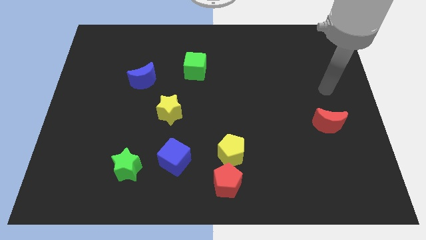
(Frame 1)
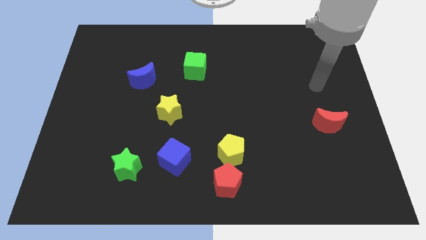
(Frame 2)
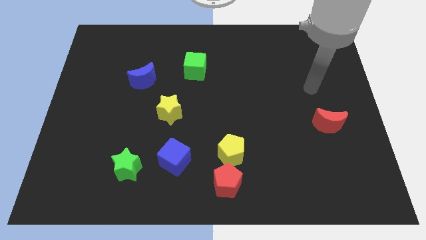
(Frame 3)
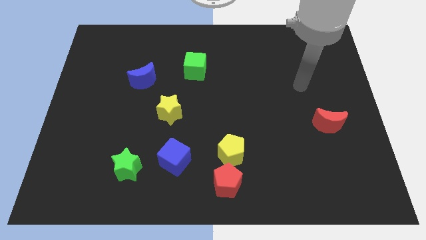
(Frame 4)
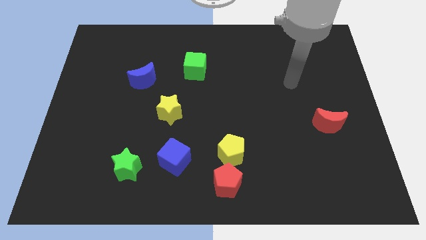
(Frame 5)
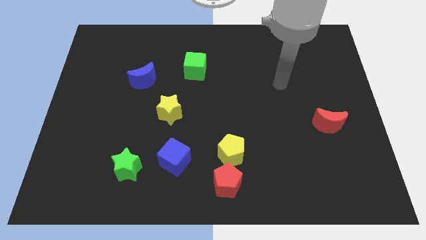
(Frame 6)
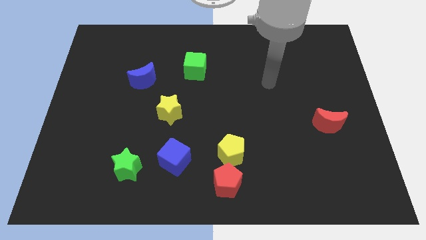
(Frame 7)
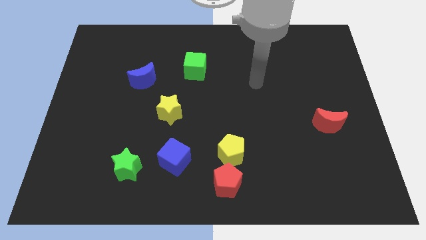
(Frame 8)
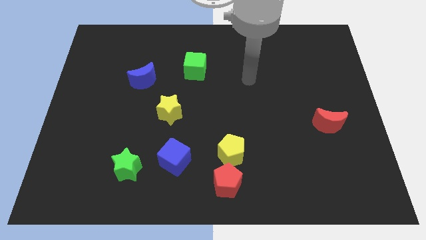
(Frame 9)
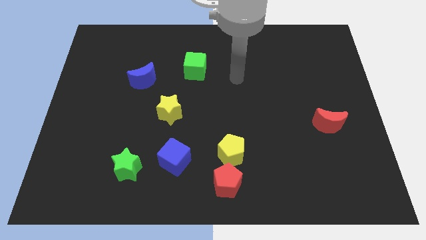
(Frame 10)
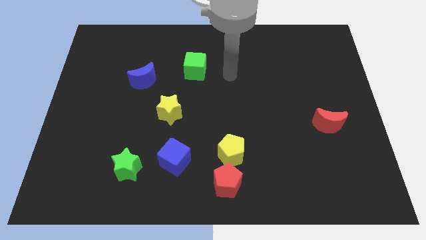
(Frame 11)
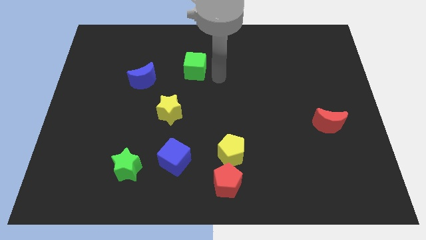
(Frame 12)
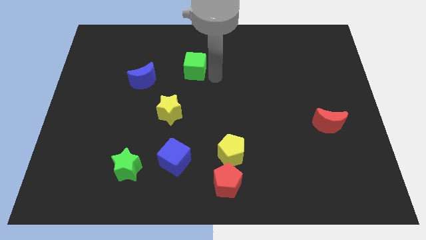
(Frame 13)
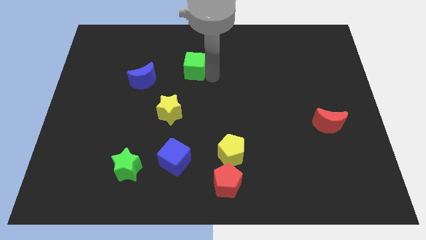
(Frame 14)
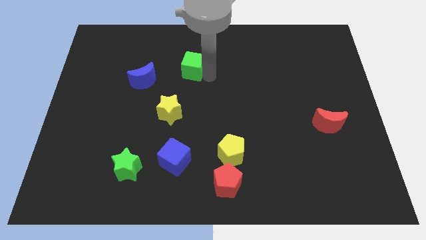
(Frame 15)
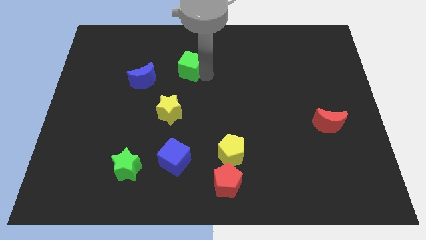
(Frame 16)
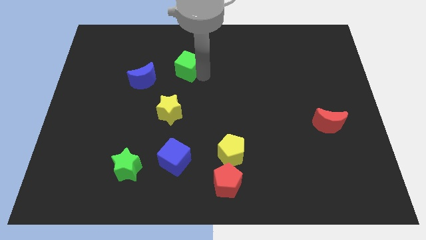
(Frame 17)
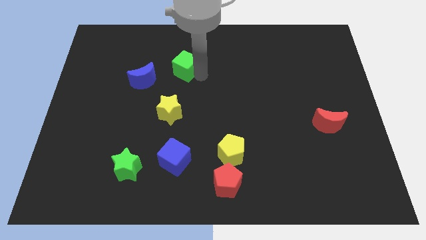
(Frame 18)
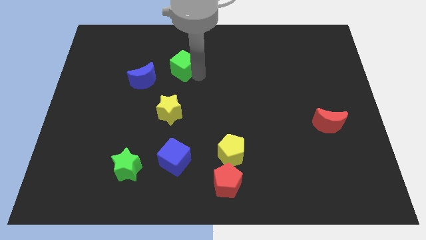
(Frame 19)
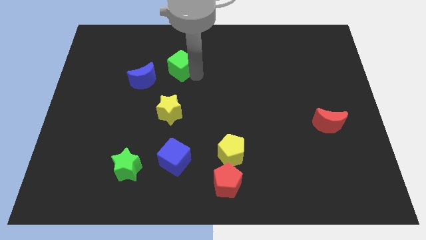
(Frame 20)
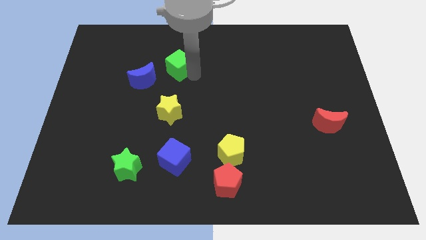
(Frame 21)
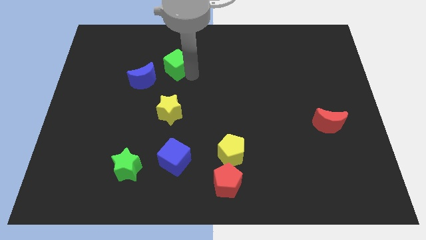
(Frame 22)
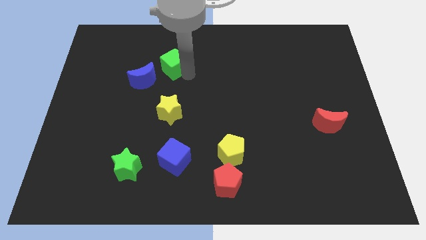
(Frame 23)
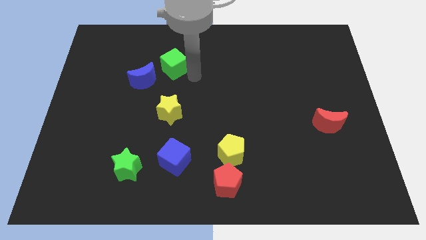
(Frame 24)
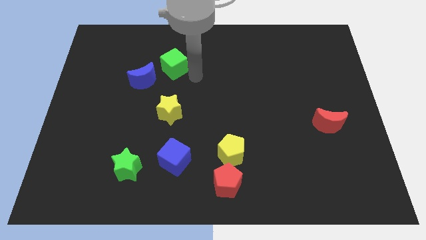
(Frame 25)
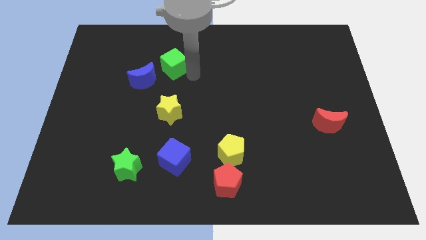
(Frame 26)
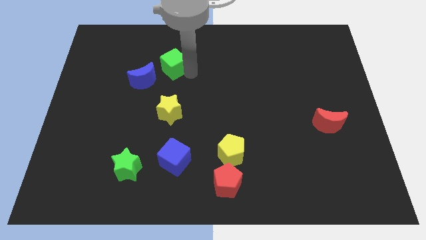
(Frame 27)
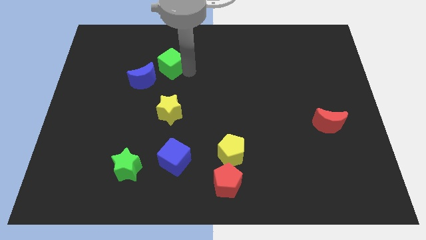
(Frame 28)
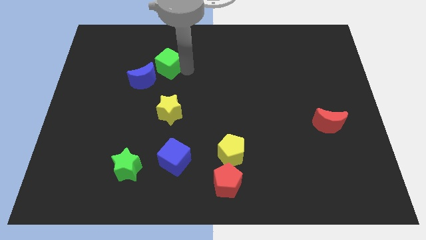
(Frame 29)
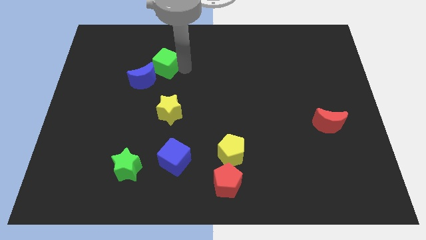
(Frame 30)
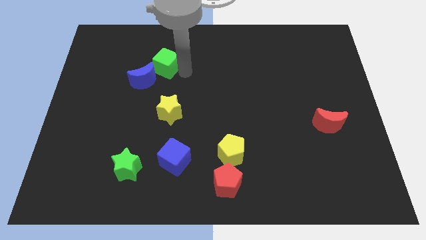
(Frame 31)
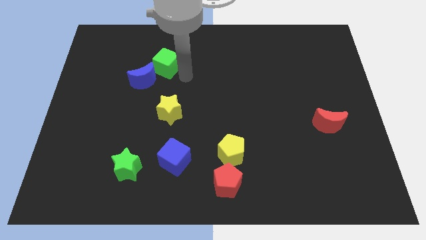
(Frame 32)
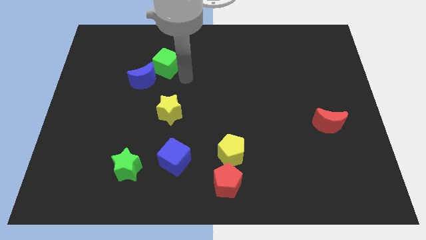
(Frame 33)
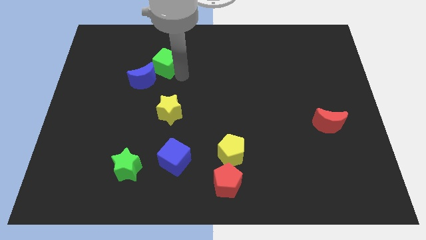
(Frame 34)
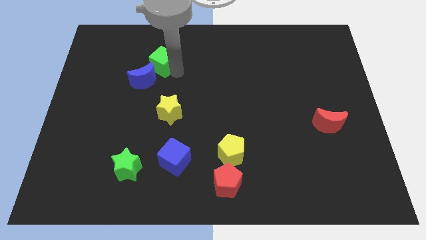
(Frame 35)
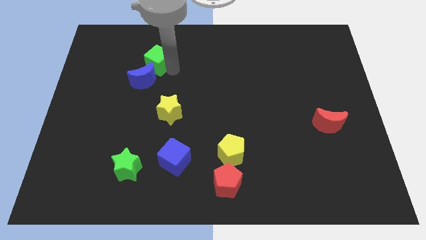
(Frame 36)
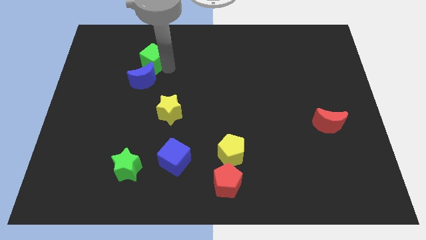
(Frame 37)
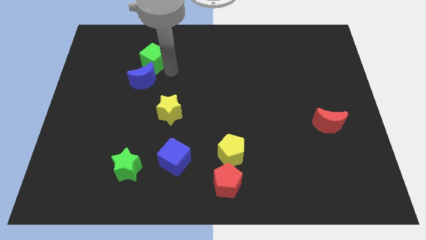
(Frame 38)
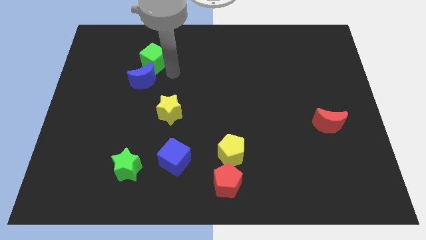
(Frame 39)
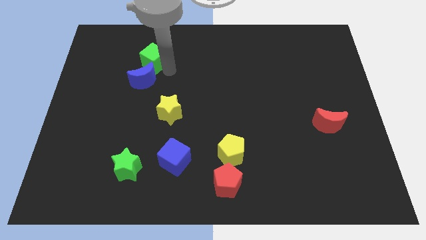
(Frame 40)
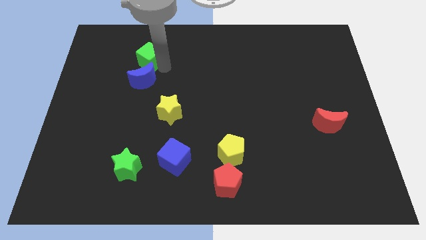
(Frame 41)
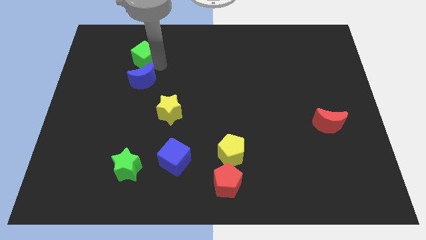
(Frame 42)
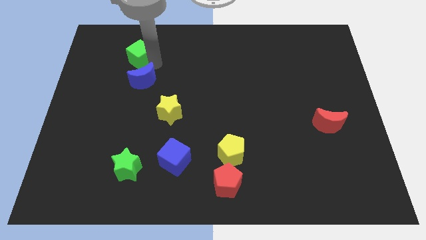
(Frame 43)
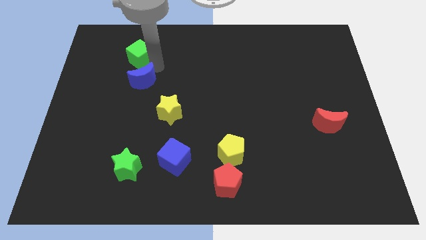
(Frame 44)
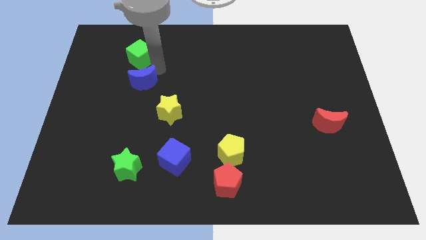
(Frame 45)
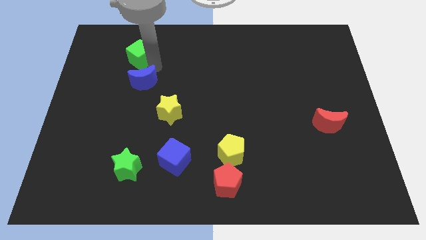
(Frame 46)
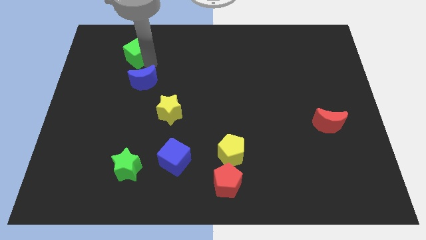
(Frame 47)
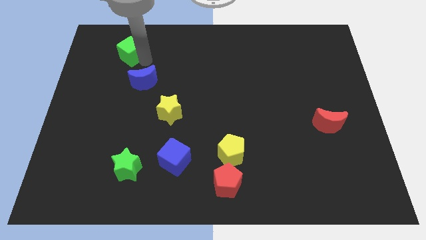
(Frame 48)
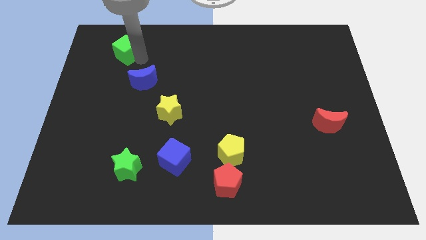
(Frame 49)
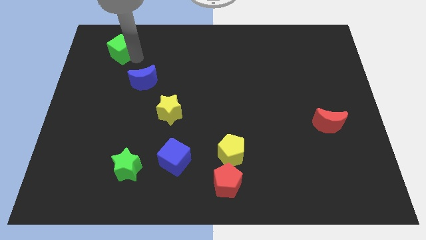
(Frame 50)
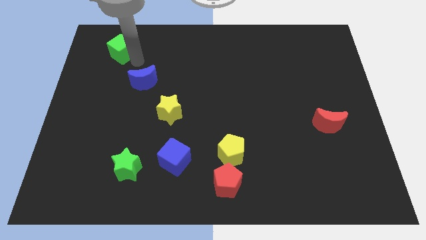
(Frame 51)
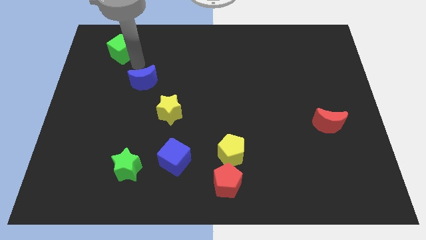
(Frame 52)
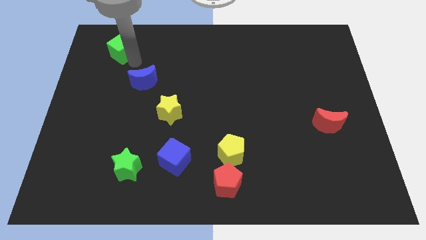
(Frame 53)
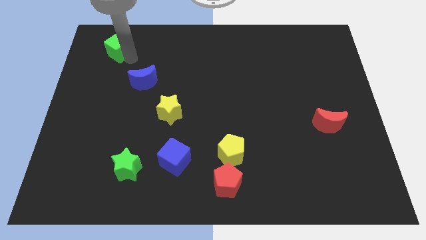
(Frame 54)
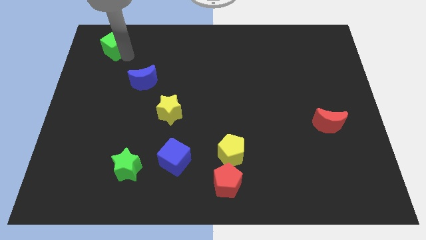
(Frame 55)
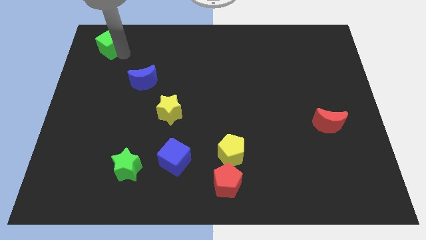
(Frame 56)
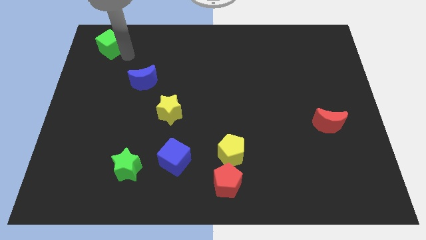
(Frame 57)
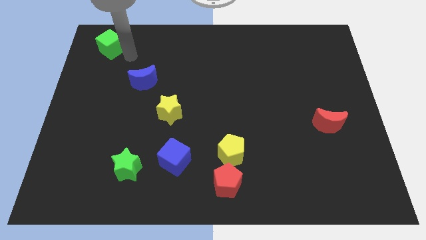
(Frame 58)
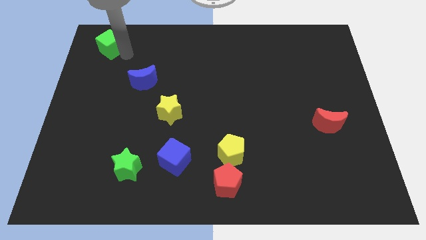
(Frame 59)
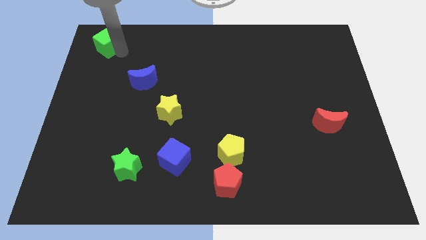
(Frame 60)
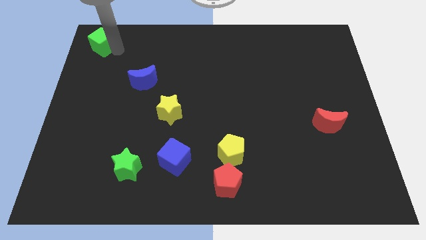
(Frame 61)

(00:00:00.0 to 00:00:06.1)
move the green cube to the top left

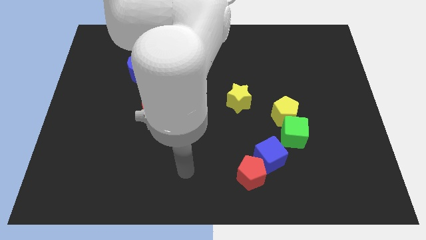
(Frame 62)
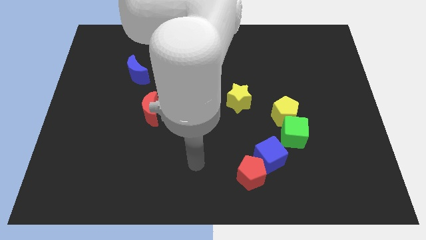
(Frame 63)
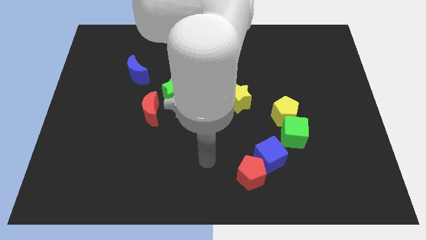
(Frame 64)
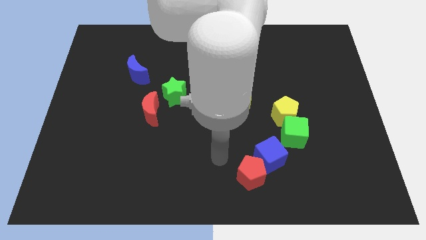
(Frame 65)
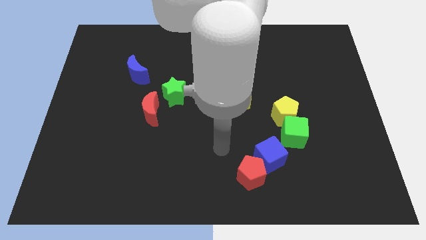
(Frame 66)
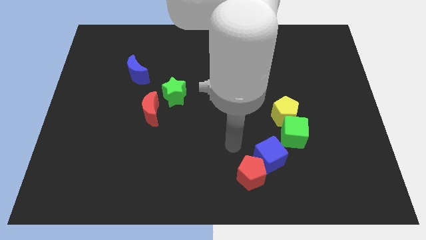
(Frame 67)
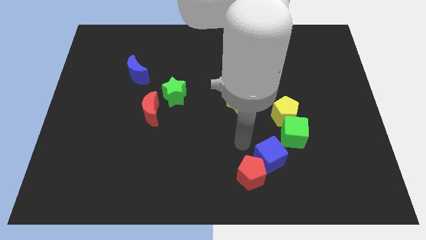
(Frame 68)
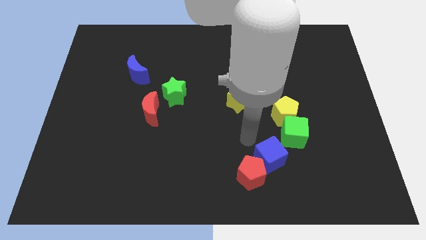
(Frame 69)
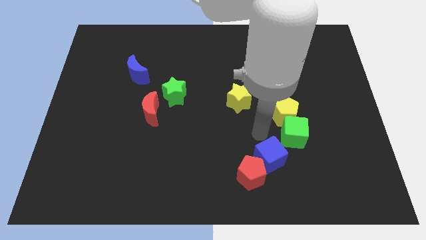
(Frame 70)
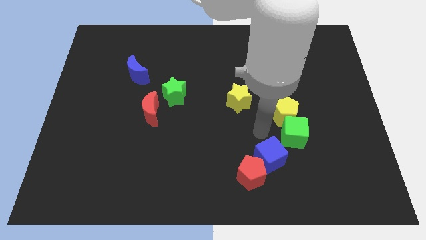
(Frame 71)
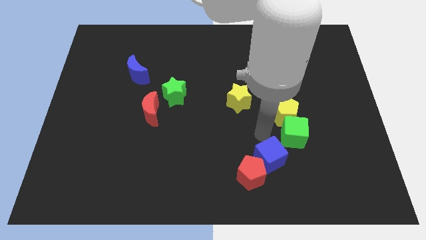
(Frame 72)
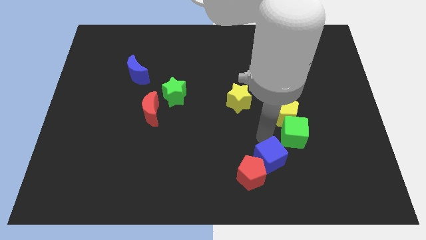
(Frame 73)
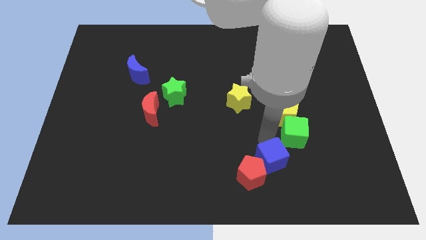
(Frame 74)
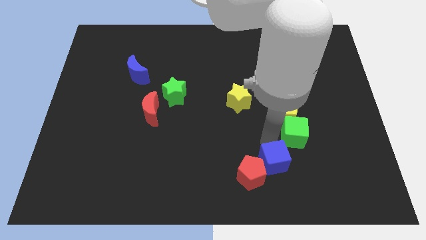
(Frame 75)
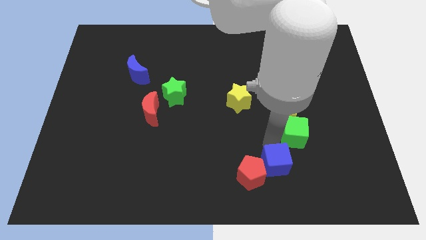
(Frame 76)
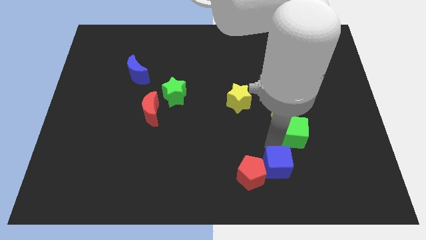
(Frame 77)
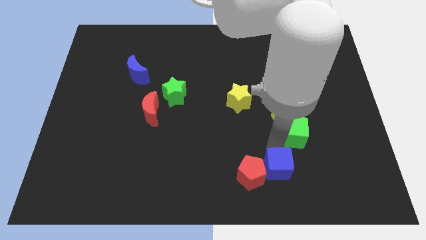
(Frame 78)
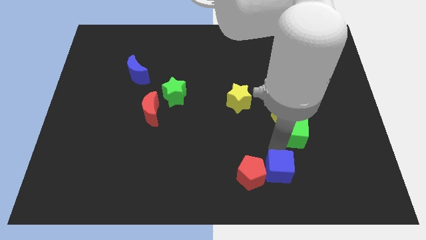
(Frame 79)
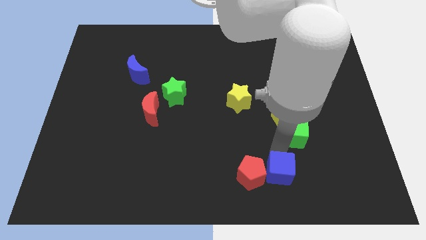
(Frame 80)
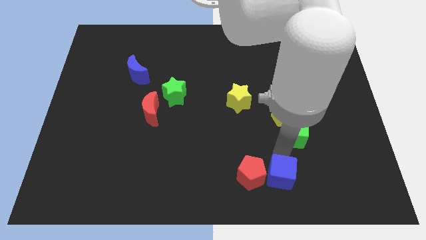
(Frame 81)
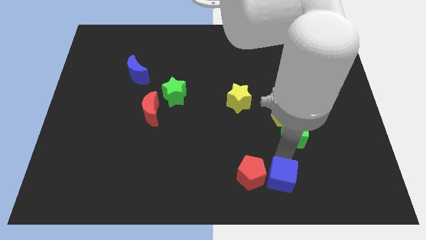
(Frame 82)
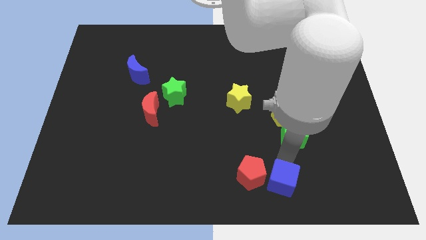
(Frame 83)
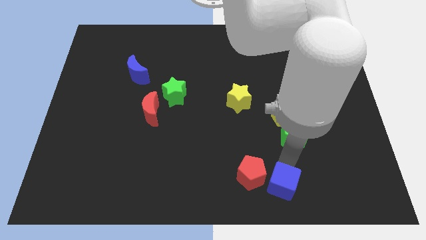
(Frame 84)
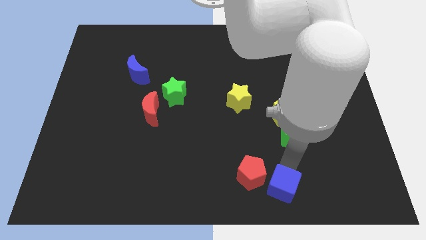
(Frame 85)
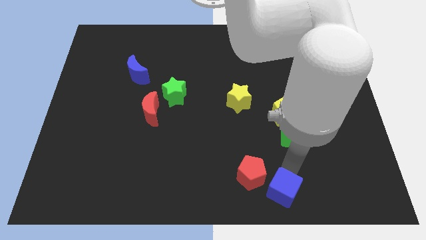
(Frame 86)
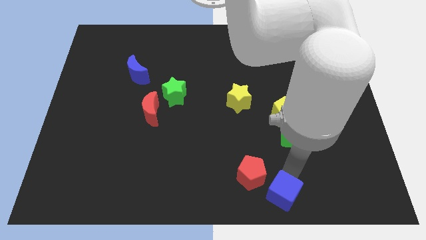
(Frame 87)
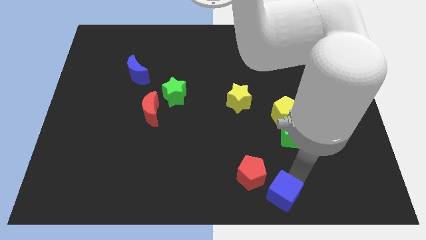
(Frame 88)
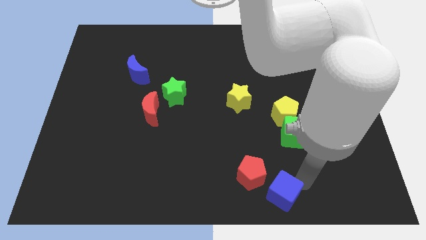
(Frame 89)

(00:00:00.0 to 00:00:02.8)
slide the blue cube to the bottom side
